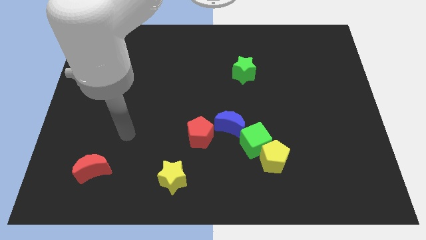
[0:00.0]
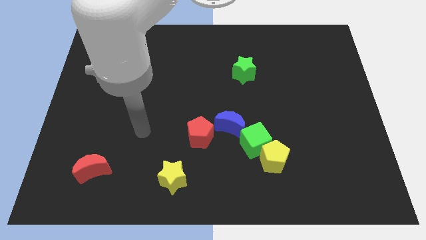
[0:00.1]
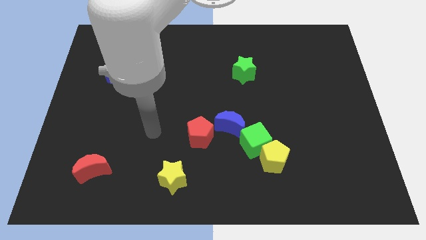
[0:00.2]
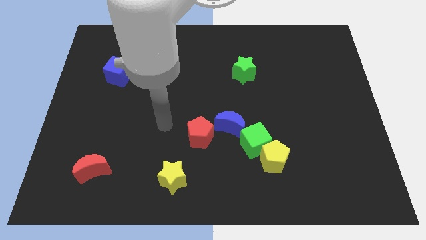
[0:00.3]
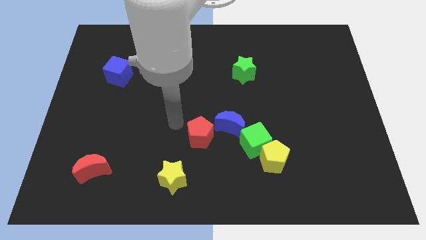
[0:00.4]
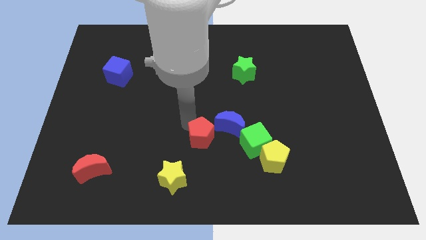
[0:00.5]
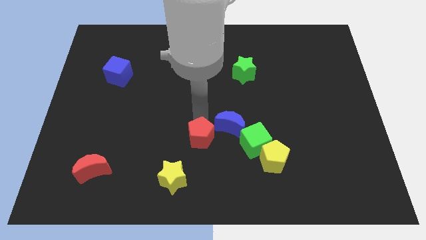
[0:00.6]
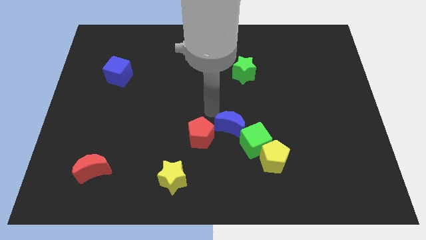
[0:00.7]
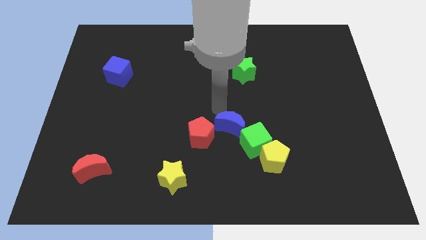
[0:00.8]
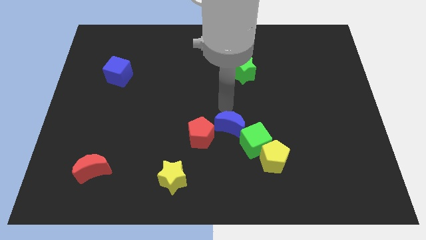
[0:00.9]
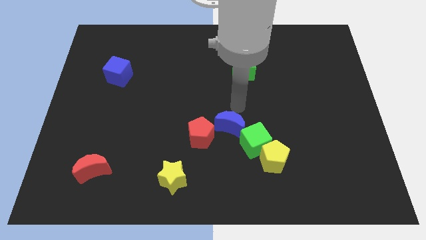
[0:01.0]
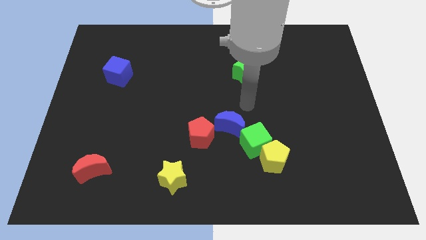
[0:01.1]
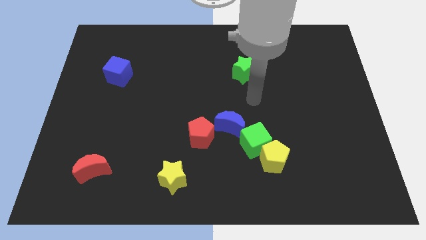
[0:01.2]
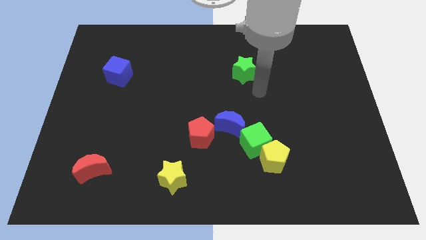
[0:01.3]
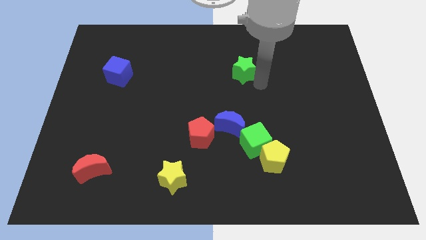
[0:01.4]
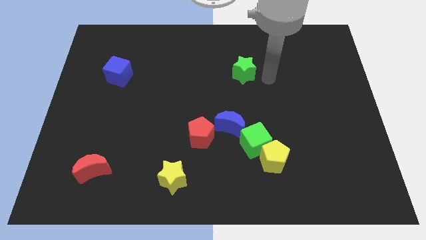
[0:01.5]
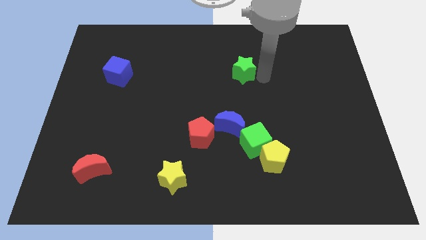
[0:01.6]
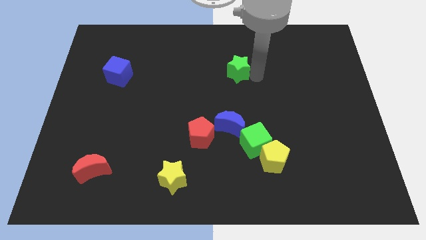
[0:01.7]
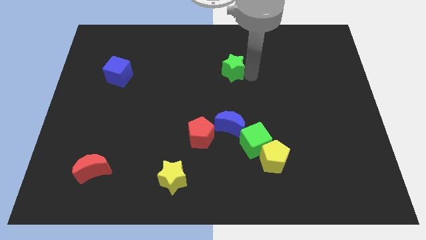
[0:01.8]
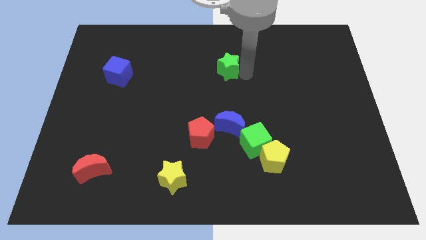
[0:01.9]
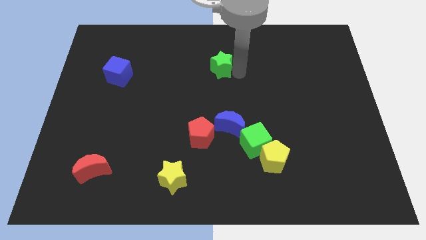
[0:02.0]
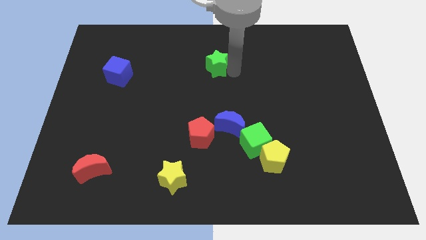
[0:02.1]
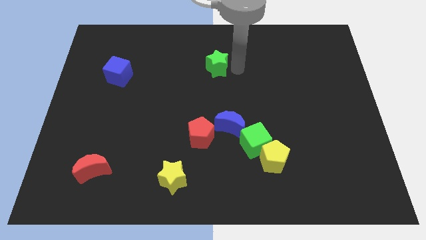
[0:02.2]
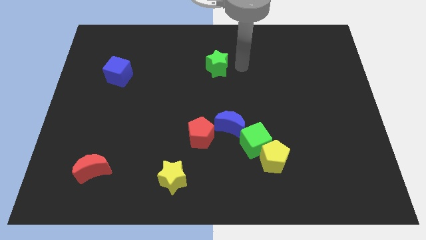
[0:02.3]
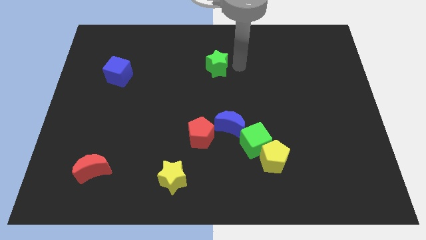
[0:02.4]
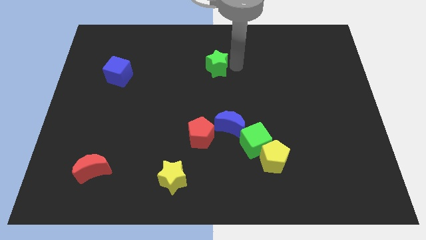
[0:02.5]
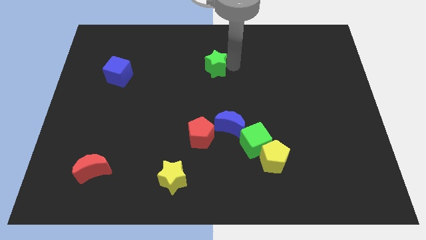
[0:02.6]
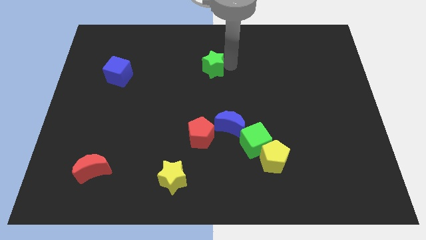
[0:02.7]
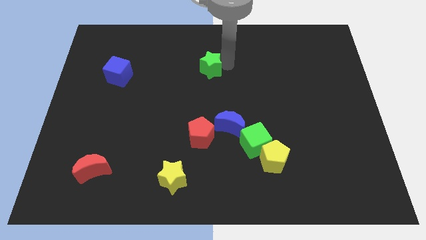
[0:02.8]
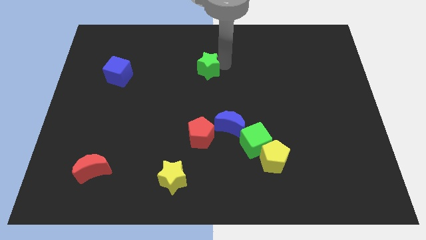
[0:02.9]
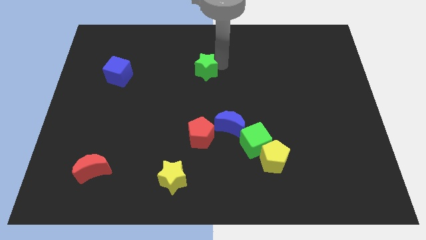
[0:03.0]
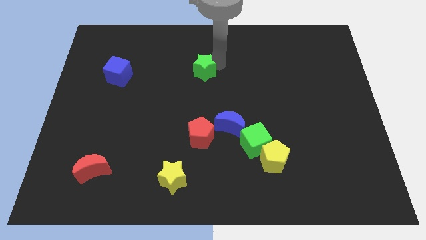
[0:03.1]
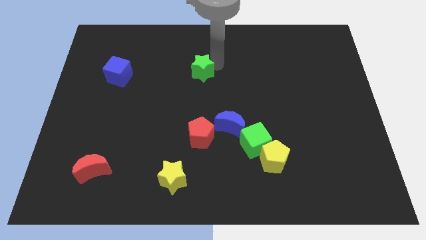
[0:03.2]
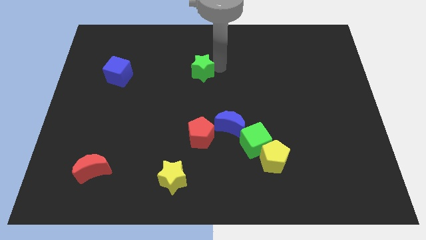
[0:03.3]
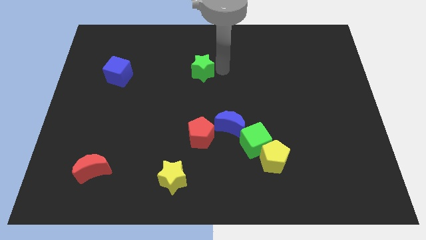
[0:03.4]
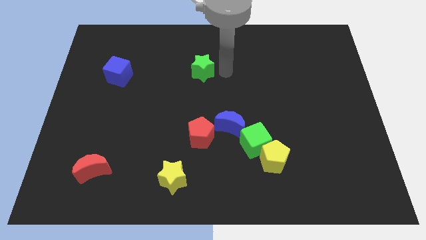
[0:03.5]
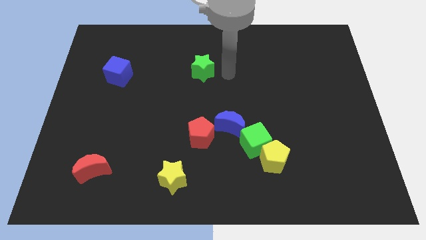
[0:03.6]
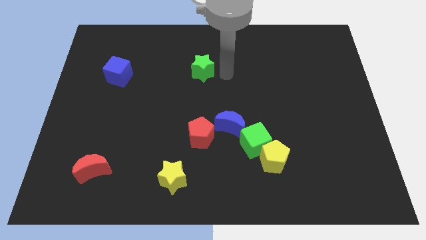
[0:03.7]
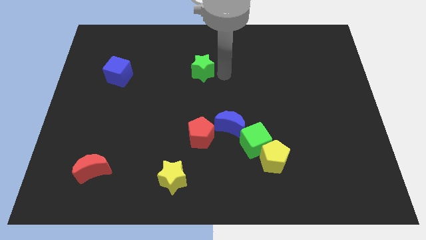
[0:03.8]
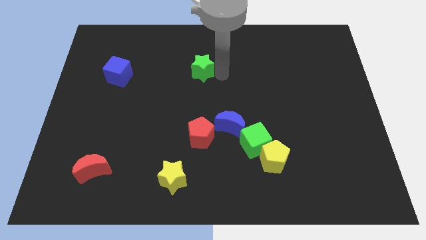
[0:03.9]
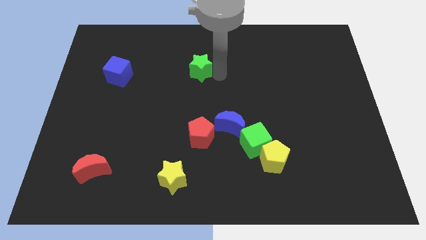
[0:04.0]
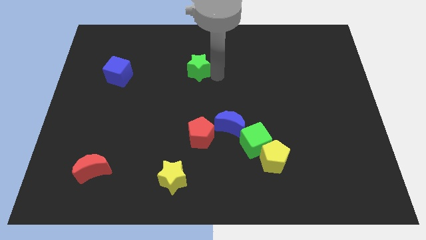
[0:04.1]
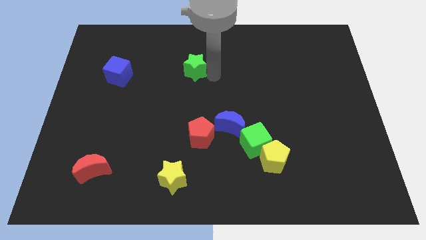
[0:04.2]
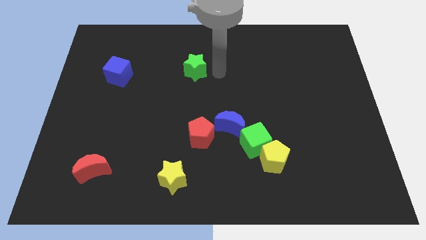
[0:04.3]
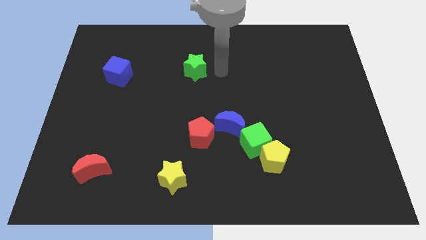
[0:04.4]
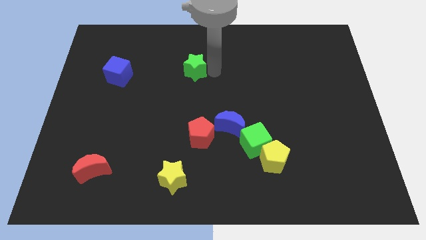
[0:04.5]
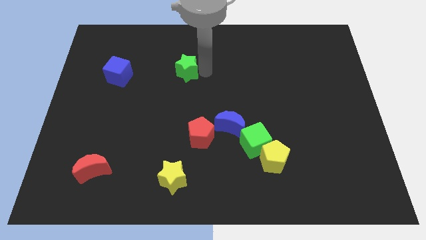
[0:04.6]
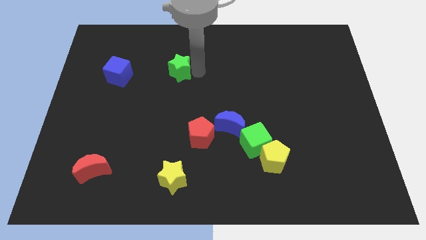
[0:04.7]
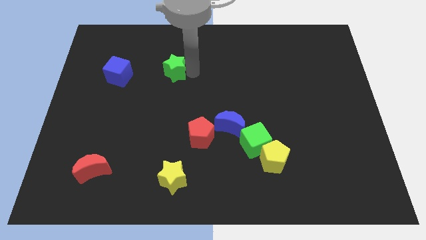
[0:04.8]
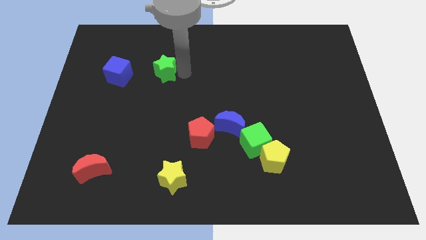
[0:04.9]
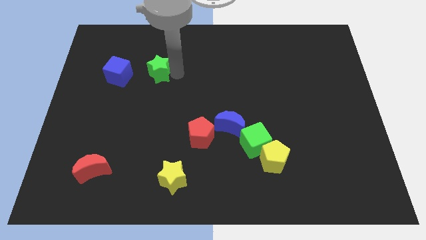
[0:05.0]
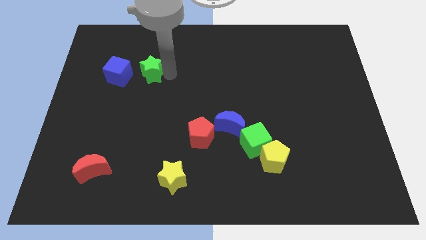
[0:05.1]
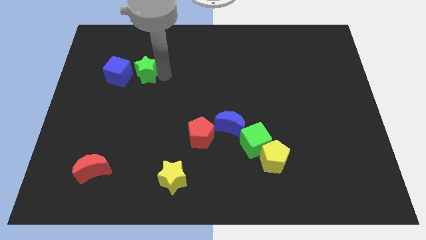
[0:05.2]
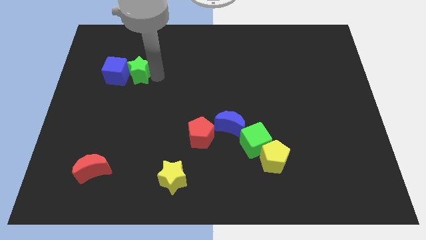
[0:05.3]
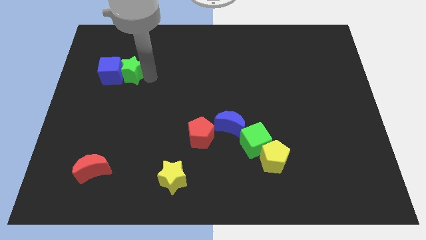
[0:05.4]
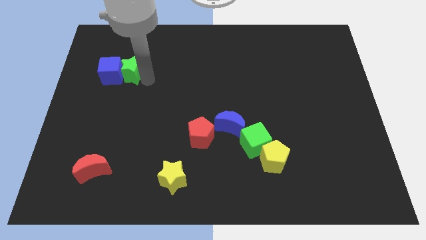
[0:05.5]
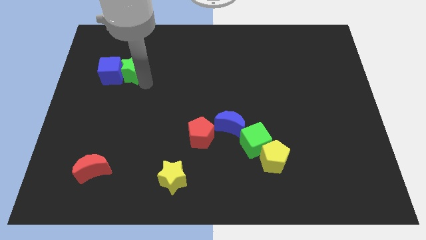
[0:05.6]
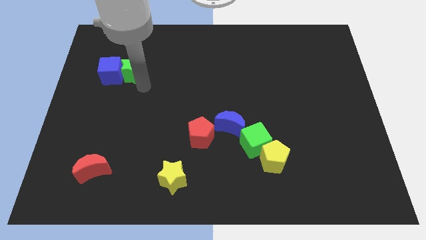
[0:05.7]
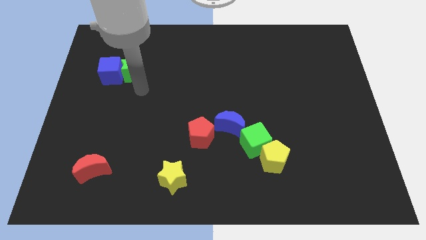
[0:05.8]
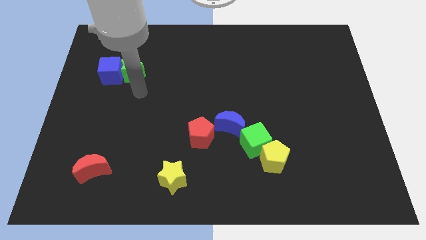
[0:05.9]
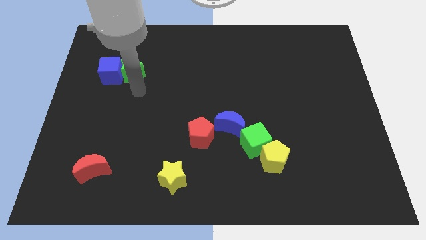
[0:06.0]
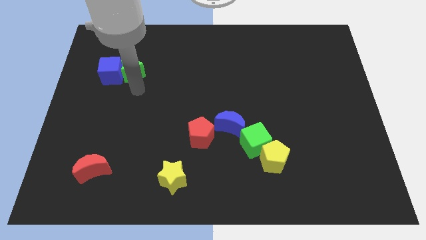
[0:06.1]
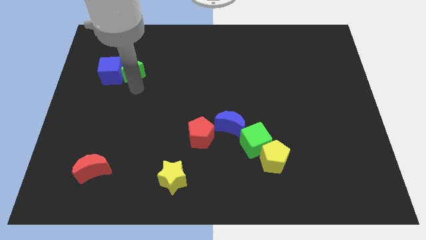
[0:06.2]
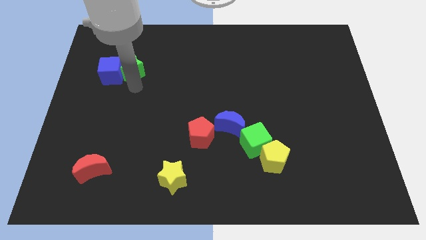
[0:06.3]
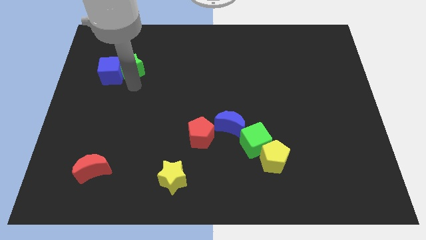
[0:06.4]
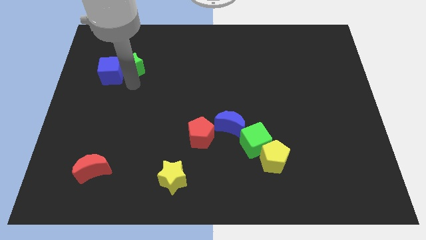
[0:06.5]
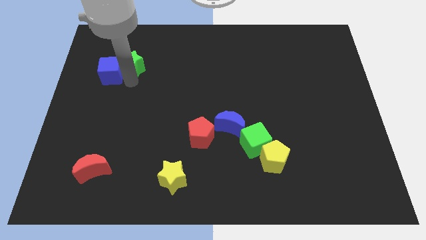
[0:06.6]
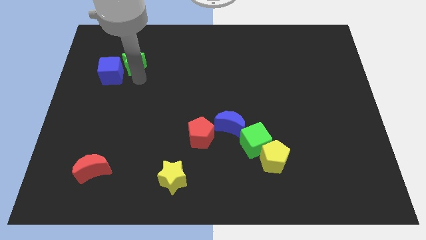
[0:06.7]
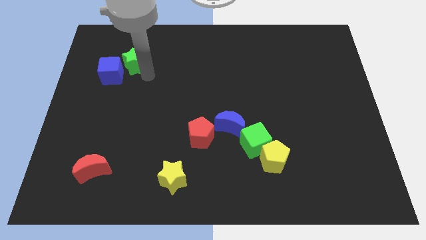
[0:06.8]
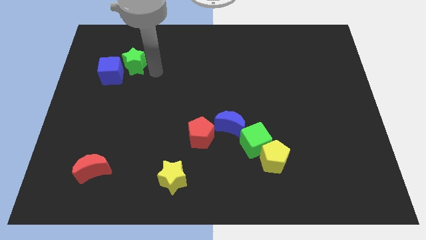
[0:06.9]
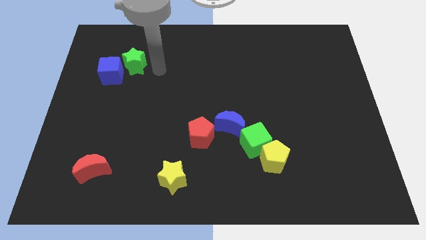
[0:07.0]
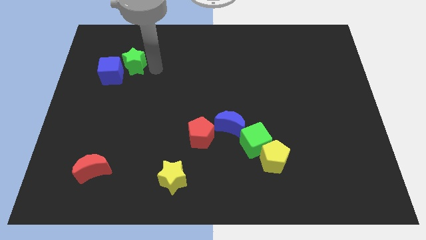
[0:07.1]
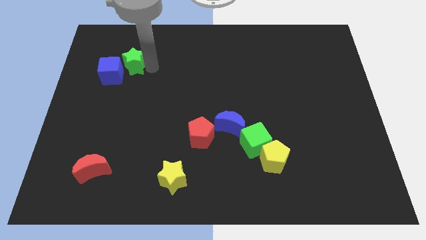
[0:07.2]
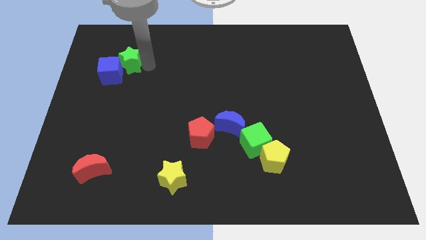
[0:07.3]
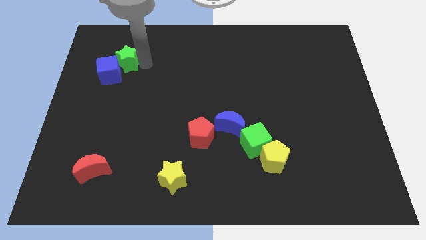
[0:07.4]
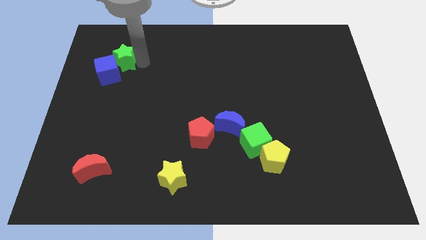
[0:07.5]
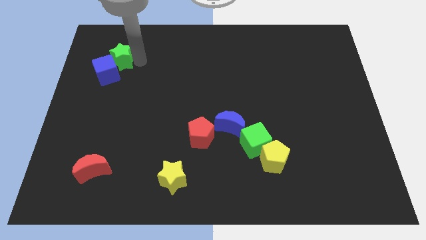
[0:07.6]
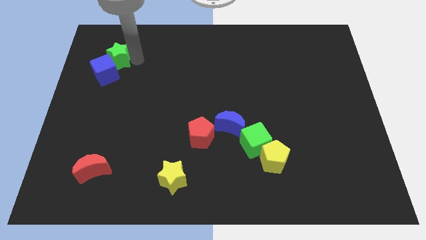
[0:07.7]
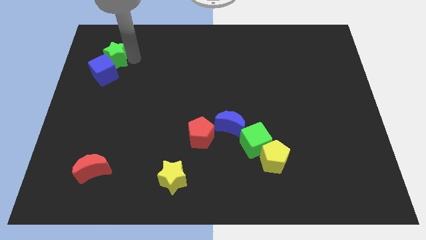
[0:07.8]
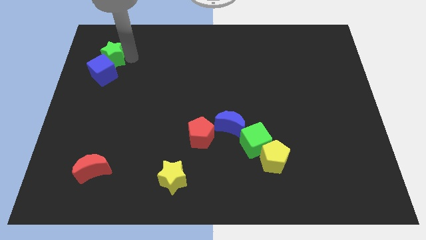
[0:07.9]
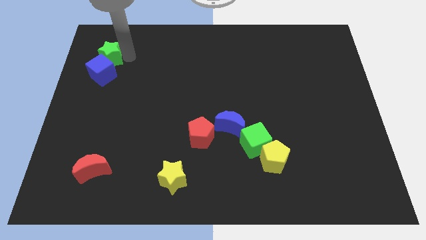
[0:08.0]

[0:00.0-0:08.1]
slide the green star to the top left side of the blue cube
